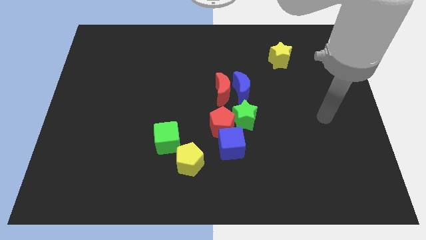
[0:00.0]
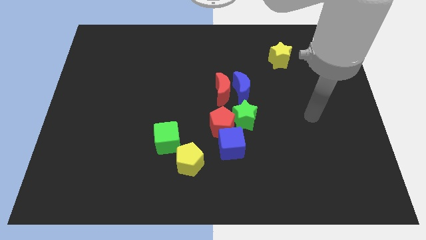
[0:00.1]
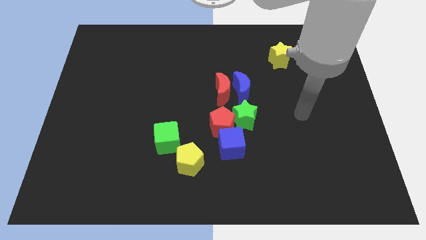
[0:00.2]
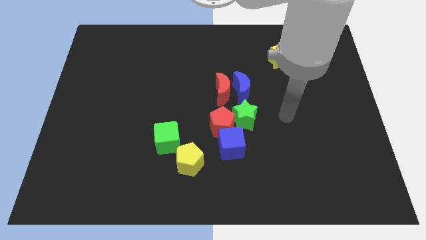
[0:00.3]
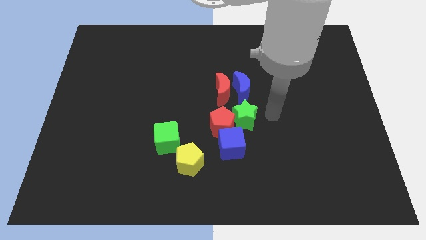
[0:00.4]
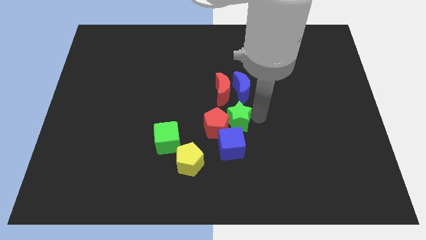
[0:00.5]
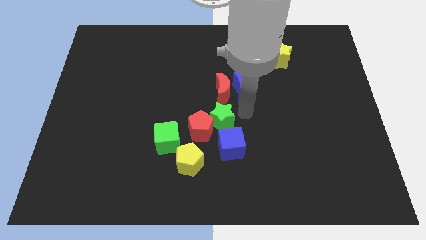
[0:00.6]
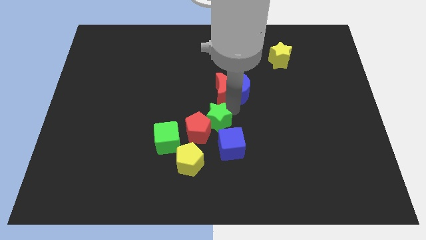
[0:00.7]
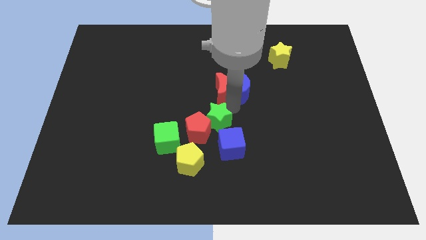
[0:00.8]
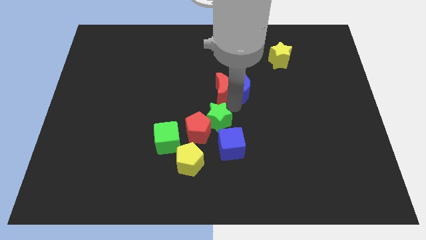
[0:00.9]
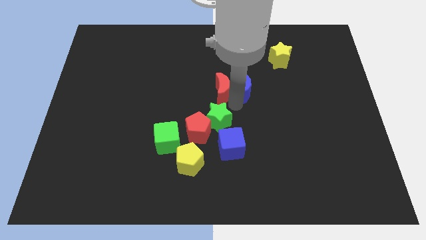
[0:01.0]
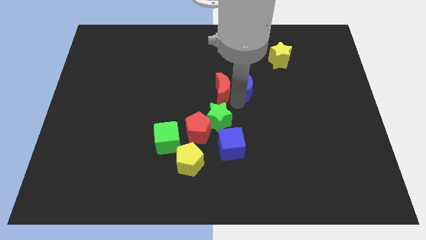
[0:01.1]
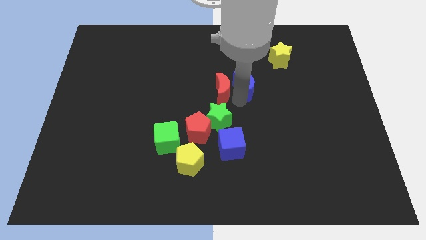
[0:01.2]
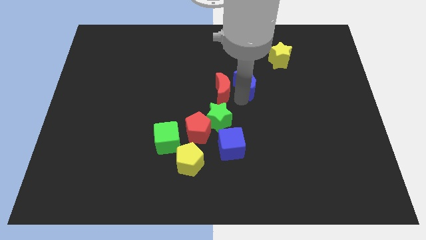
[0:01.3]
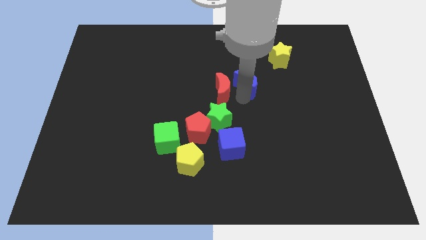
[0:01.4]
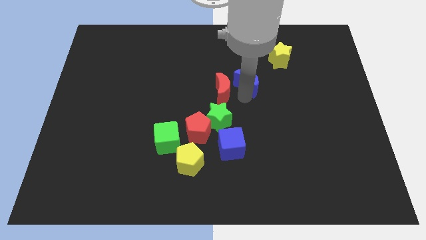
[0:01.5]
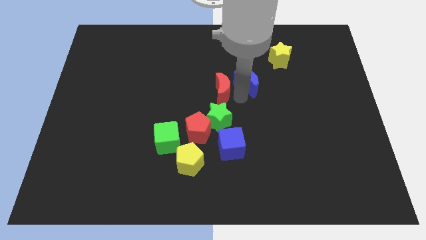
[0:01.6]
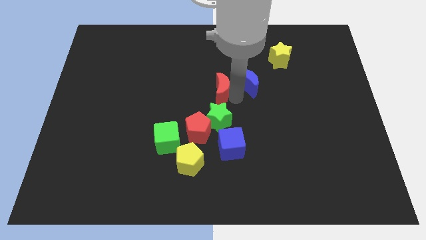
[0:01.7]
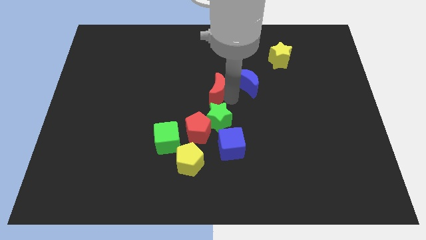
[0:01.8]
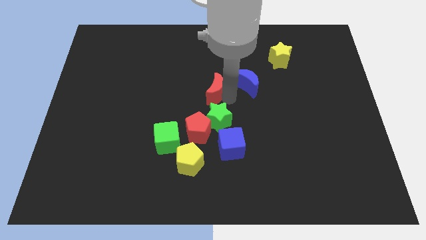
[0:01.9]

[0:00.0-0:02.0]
separate the blue moon from the red moon and green star

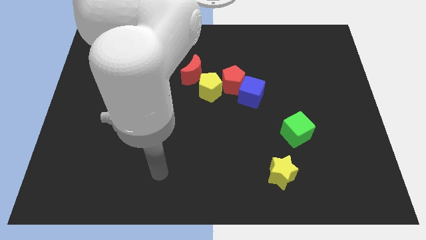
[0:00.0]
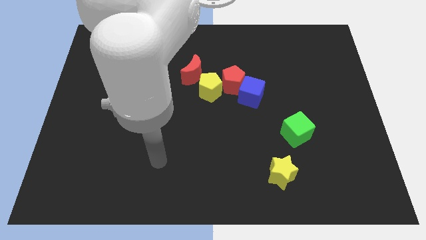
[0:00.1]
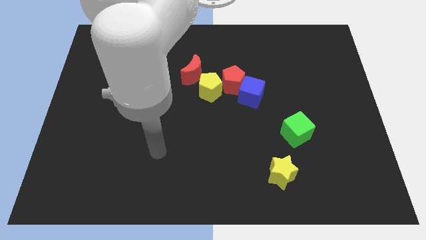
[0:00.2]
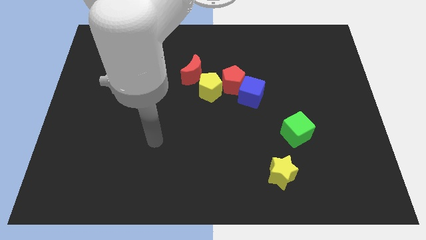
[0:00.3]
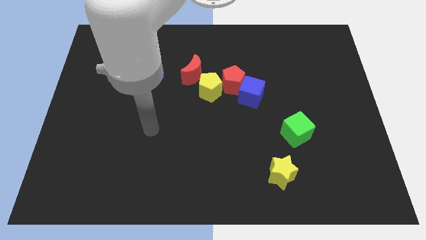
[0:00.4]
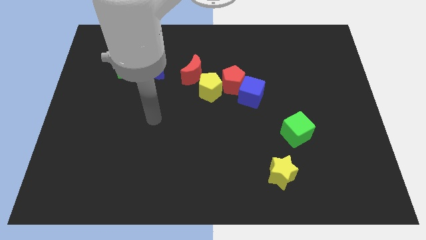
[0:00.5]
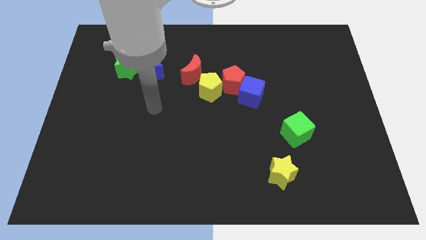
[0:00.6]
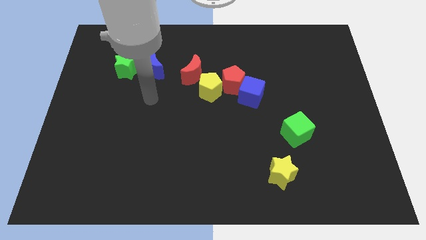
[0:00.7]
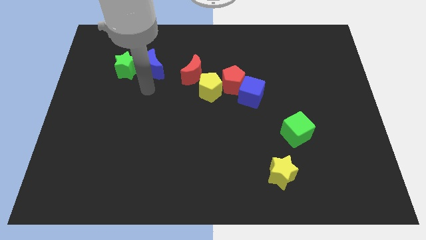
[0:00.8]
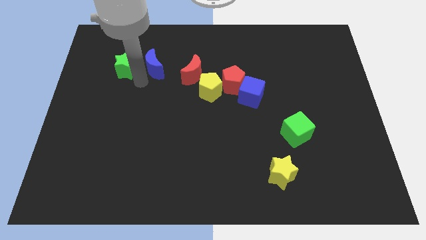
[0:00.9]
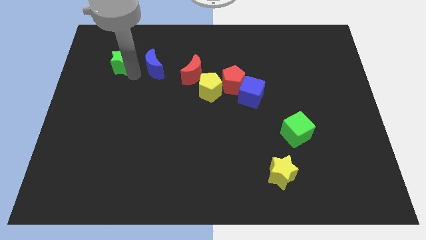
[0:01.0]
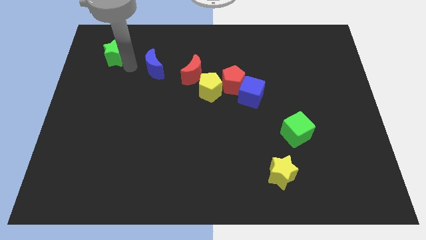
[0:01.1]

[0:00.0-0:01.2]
pull the blue moon apart from the green star

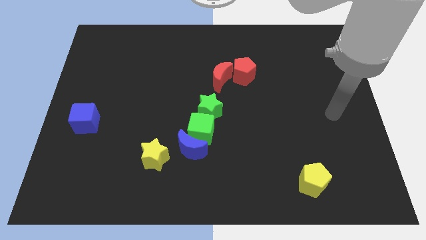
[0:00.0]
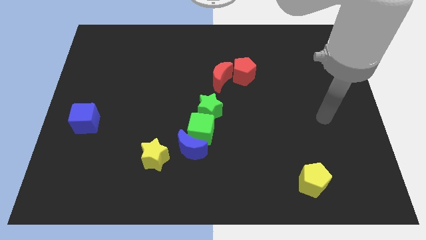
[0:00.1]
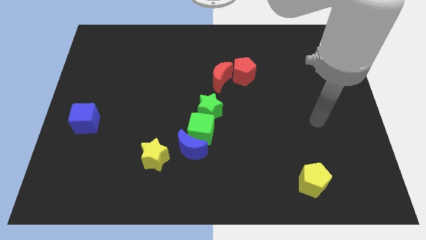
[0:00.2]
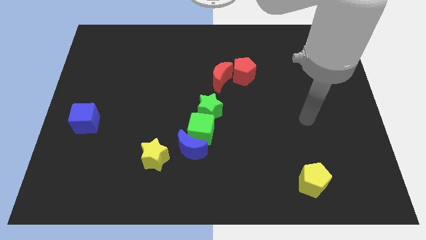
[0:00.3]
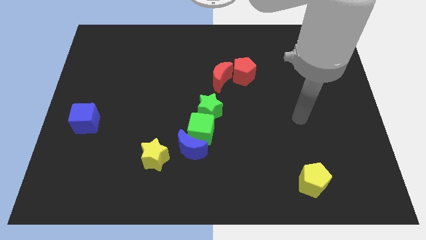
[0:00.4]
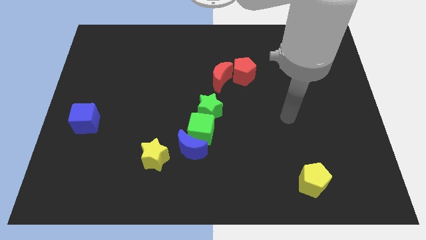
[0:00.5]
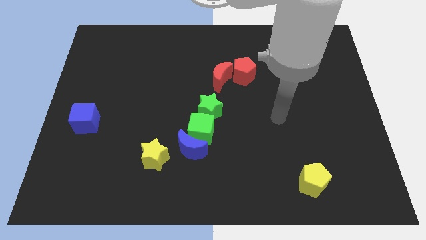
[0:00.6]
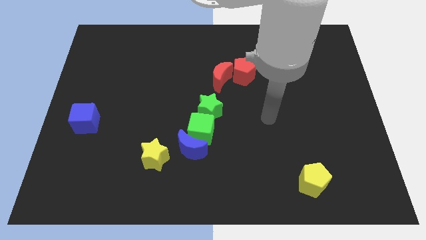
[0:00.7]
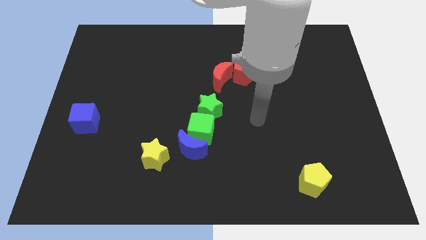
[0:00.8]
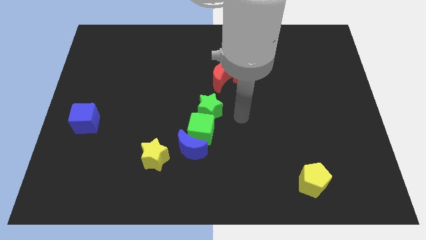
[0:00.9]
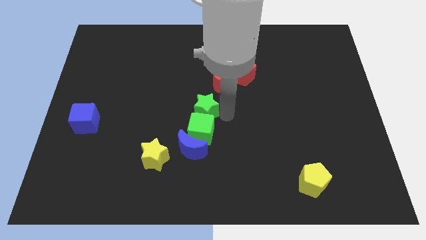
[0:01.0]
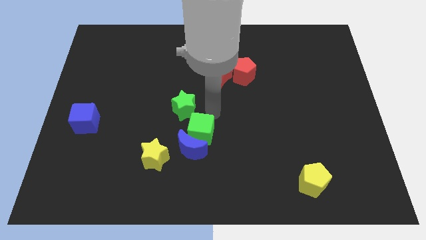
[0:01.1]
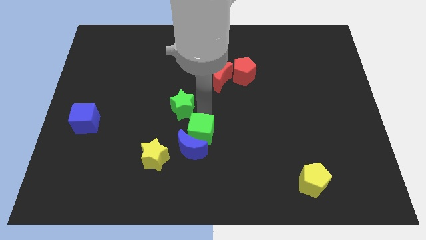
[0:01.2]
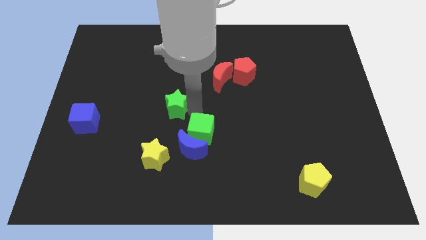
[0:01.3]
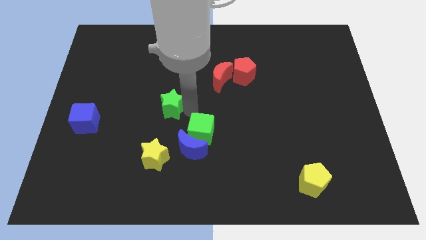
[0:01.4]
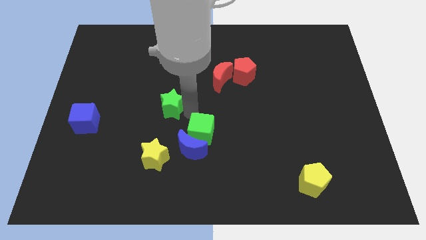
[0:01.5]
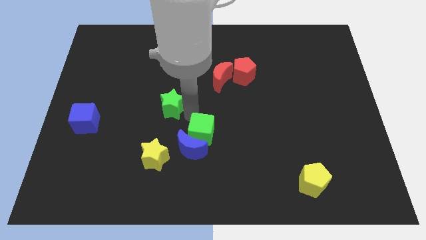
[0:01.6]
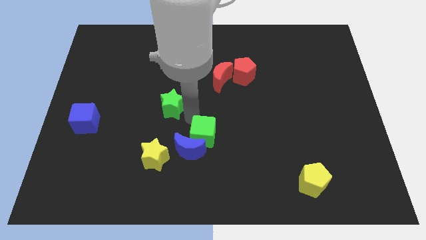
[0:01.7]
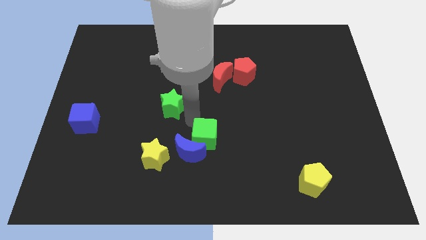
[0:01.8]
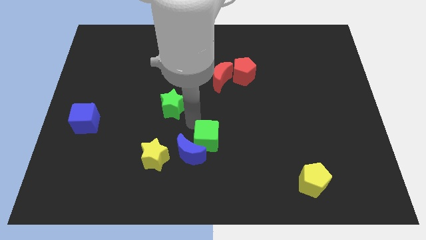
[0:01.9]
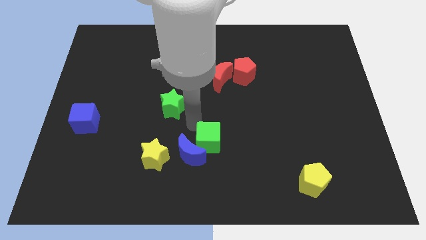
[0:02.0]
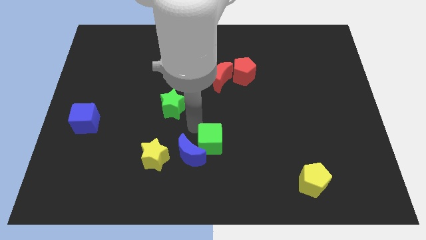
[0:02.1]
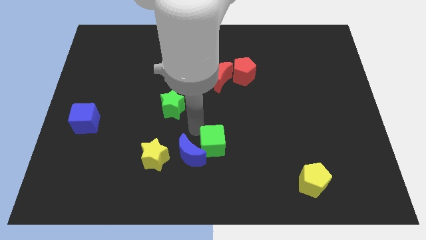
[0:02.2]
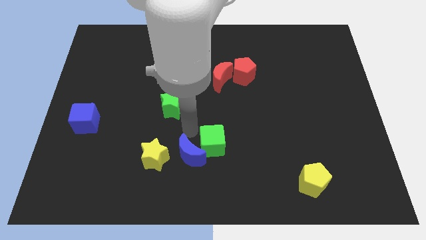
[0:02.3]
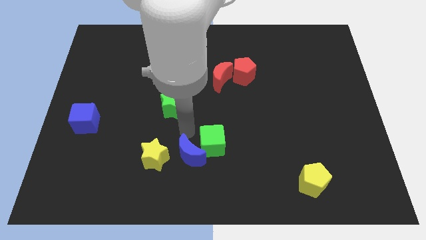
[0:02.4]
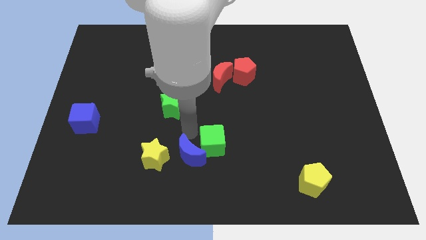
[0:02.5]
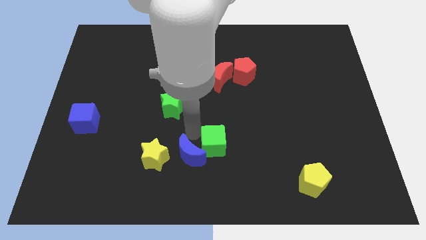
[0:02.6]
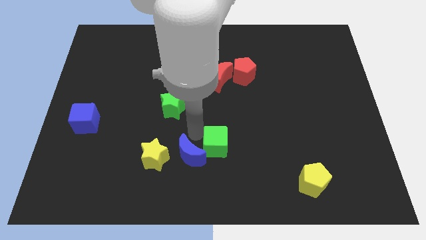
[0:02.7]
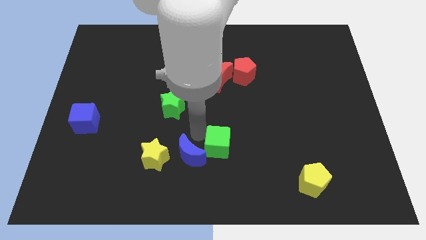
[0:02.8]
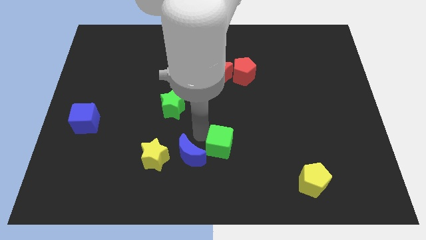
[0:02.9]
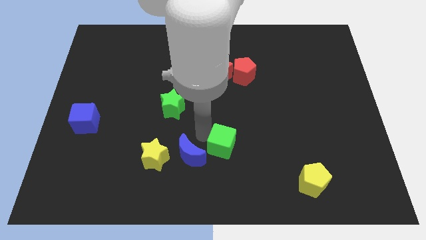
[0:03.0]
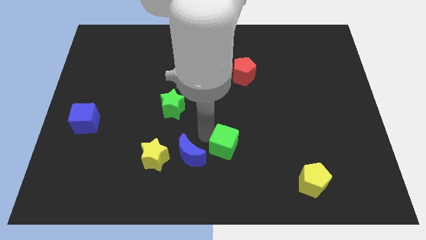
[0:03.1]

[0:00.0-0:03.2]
pull the green cube apart from the blue moon and green star

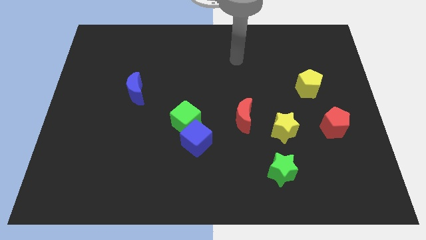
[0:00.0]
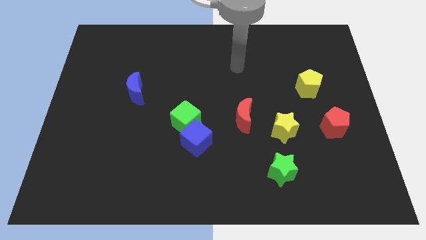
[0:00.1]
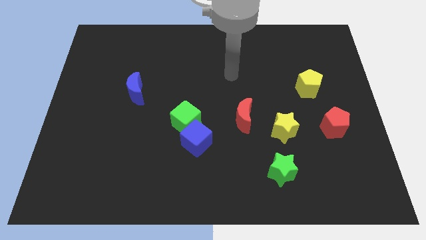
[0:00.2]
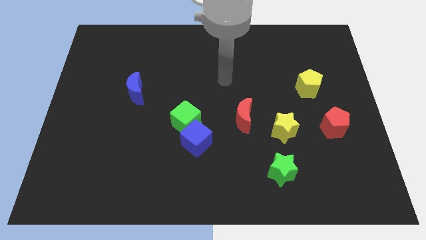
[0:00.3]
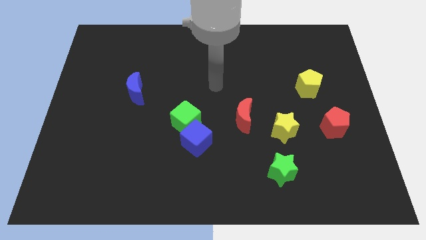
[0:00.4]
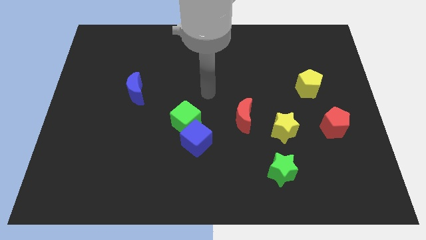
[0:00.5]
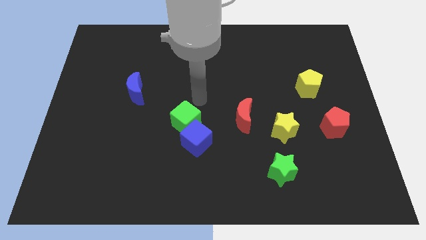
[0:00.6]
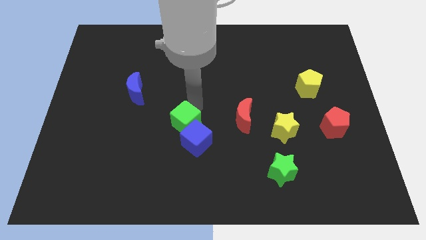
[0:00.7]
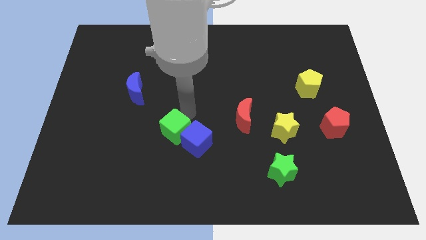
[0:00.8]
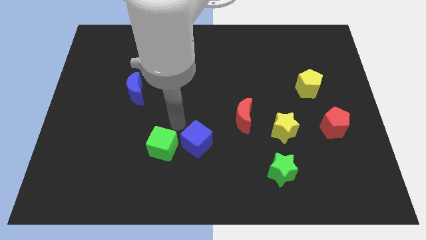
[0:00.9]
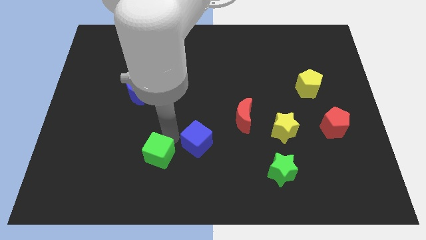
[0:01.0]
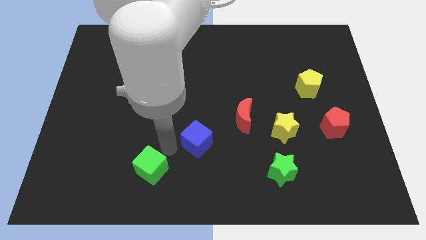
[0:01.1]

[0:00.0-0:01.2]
move the blue cube away from the green cube

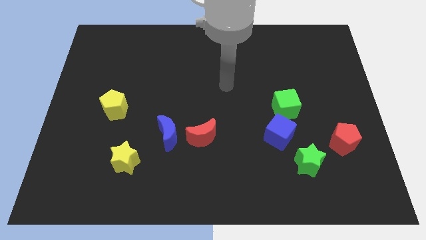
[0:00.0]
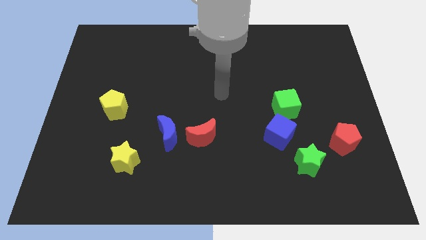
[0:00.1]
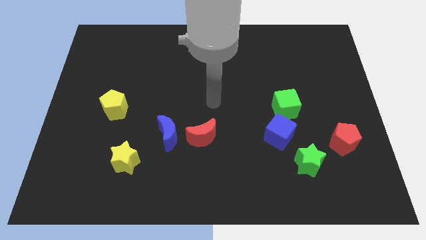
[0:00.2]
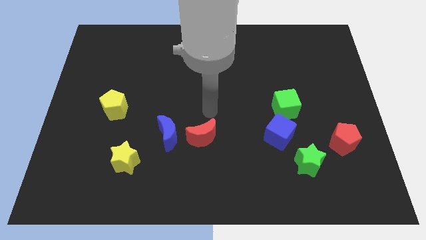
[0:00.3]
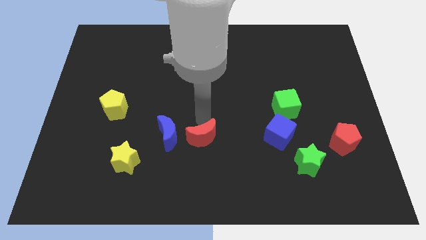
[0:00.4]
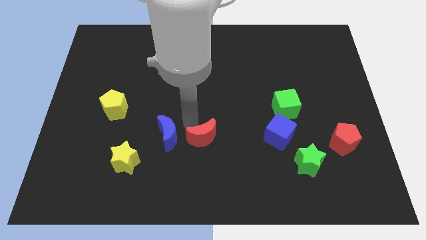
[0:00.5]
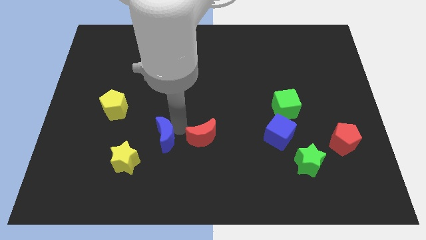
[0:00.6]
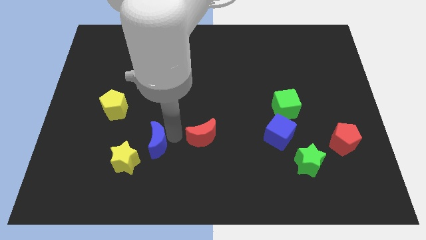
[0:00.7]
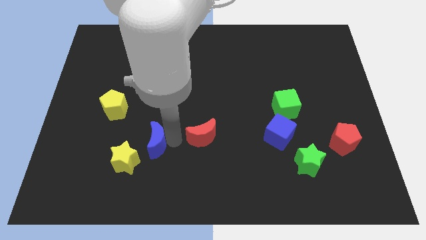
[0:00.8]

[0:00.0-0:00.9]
separate the red moon from the blue moon

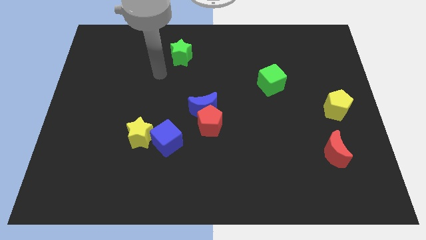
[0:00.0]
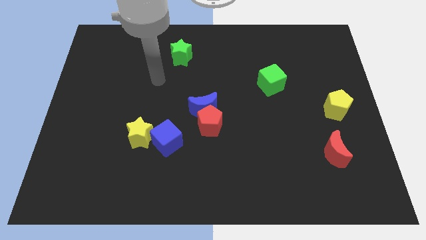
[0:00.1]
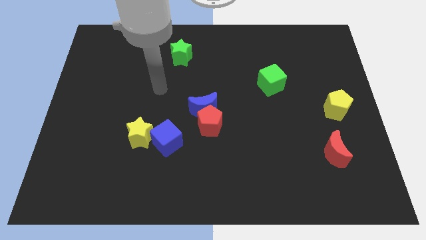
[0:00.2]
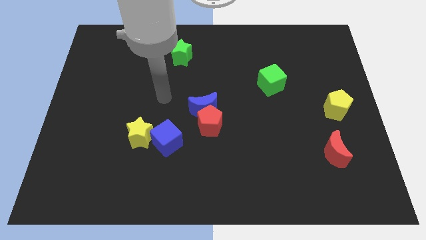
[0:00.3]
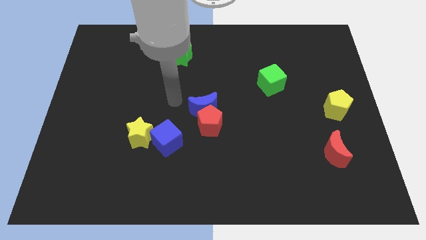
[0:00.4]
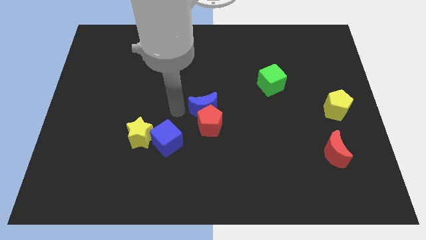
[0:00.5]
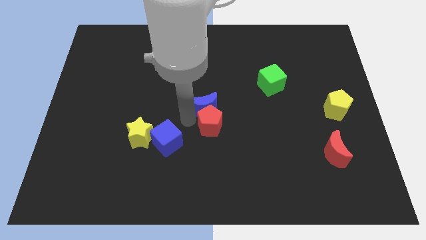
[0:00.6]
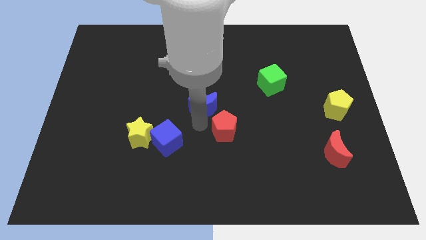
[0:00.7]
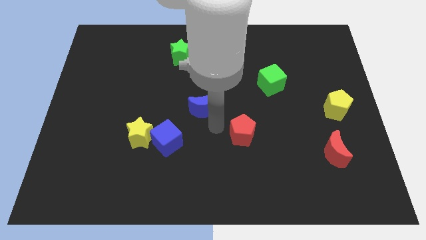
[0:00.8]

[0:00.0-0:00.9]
pull the blue moon apart from the red pentagon

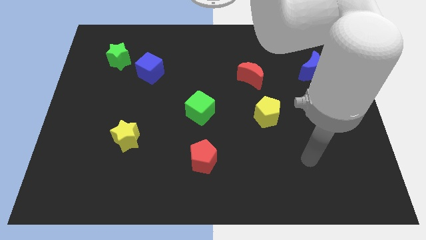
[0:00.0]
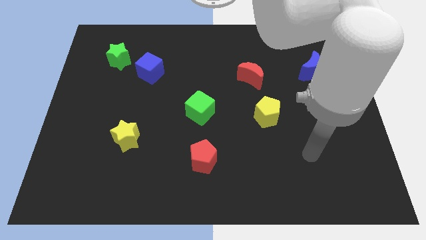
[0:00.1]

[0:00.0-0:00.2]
move the blue cube away from the green star
